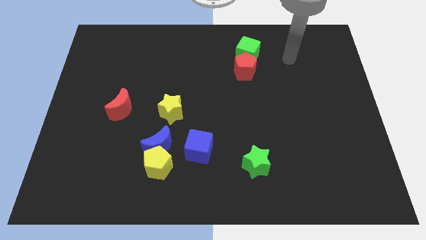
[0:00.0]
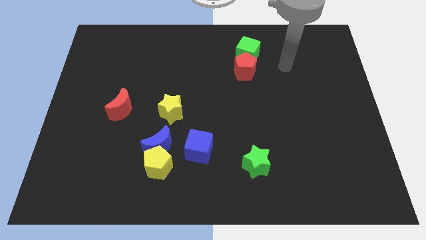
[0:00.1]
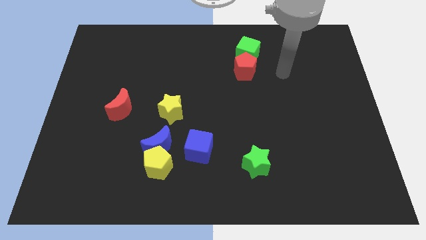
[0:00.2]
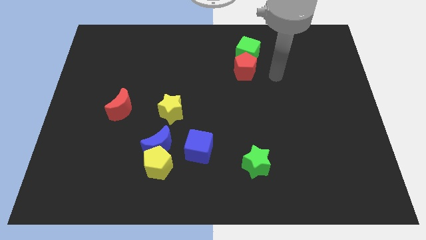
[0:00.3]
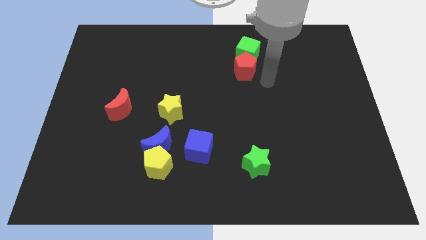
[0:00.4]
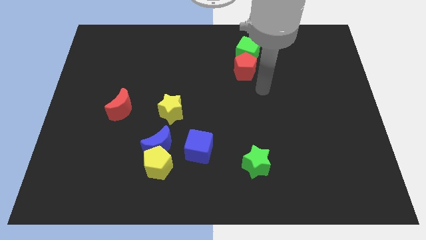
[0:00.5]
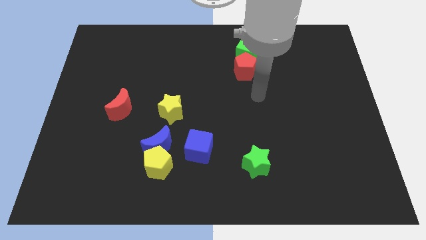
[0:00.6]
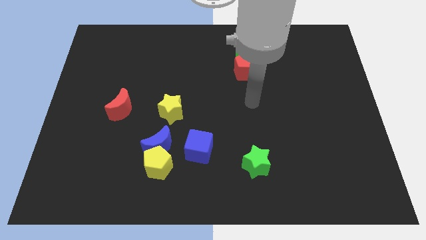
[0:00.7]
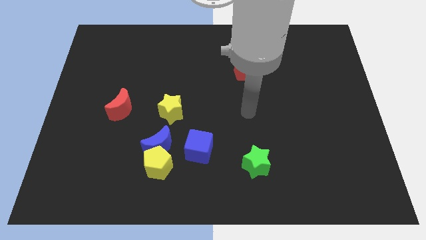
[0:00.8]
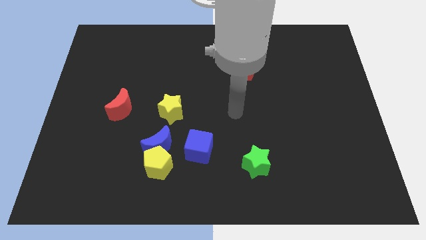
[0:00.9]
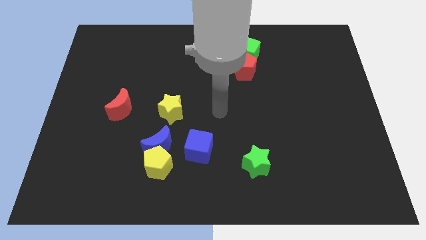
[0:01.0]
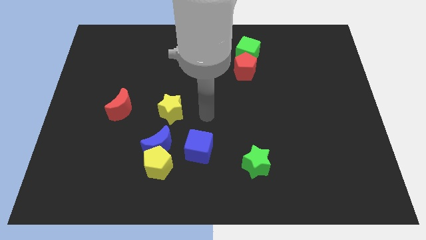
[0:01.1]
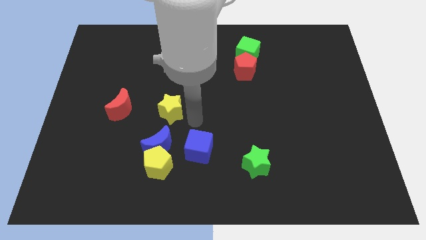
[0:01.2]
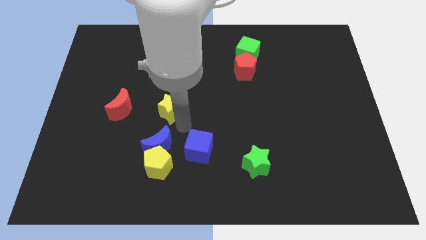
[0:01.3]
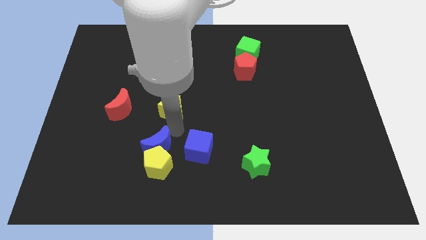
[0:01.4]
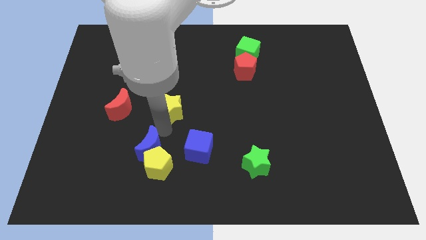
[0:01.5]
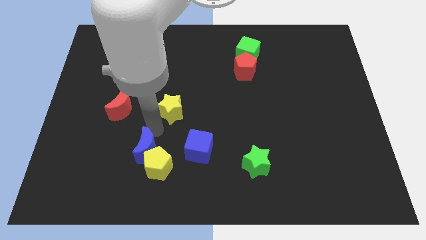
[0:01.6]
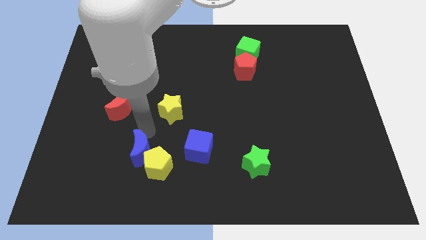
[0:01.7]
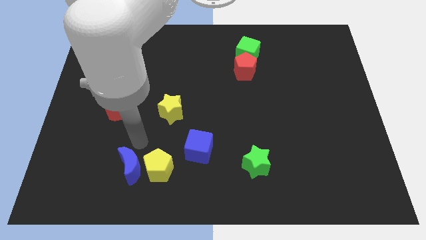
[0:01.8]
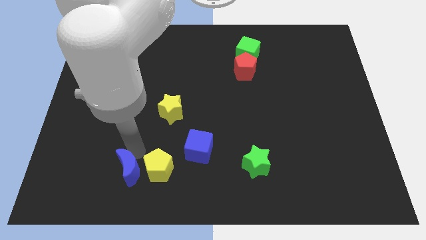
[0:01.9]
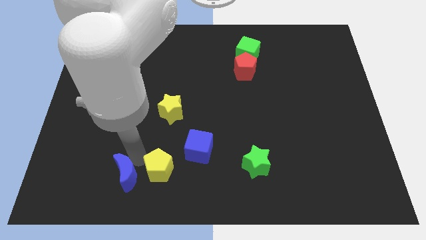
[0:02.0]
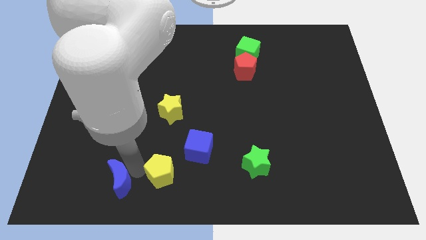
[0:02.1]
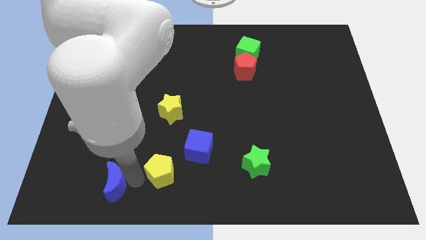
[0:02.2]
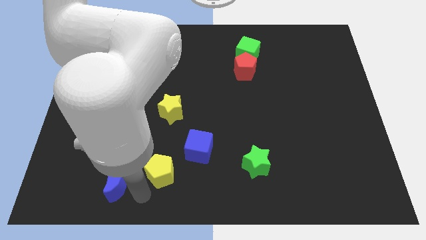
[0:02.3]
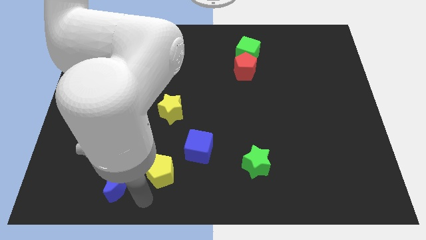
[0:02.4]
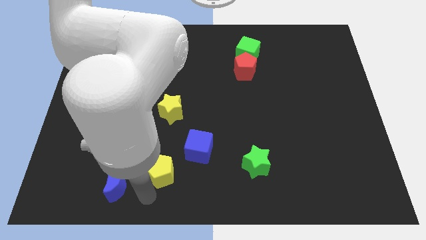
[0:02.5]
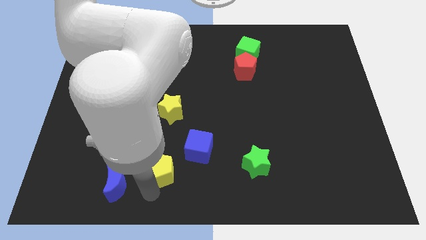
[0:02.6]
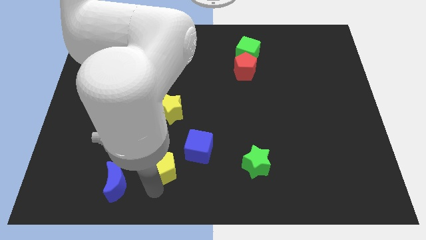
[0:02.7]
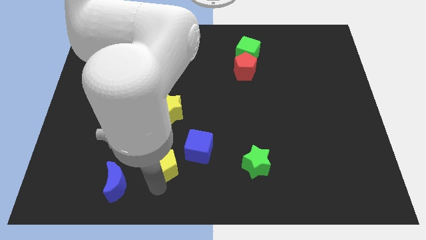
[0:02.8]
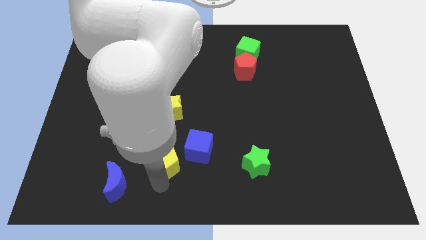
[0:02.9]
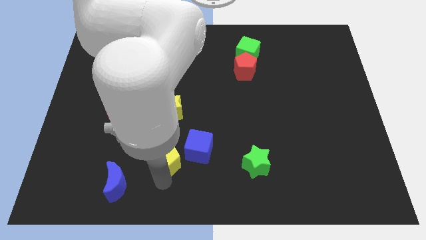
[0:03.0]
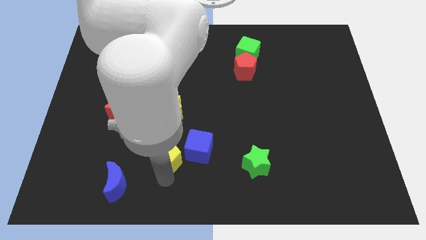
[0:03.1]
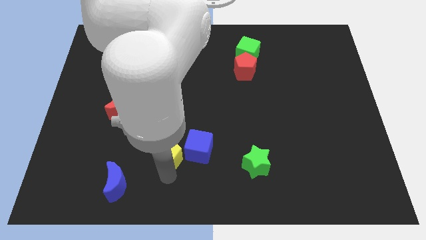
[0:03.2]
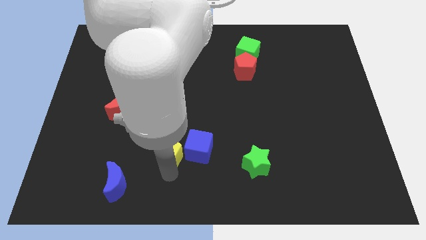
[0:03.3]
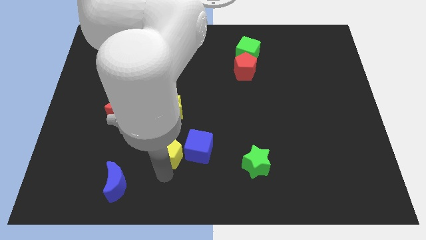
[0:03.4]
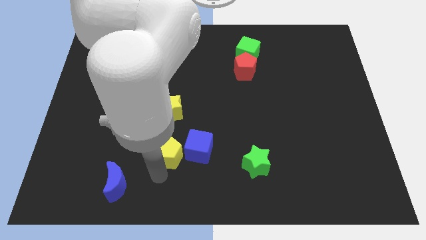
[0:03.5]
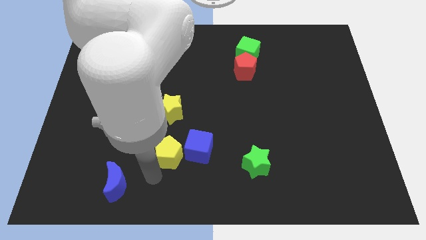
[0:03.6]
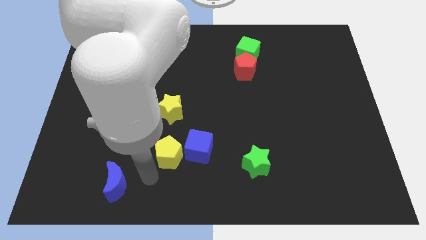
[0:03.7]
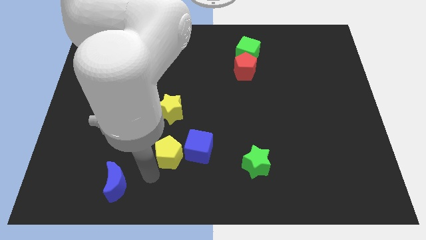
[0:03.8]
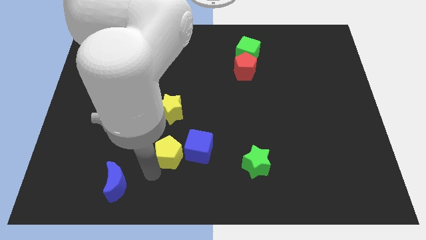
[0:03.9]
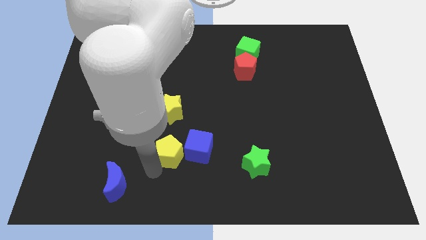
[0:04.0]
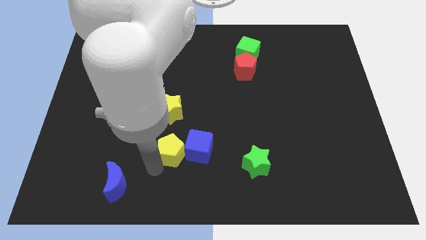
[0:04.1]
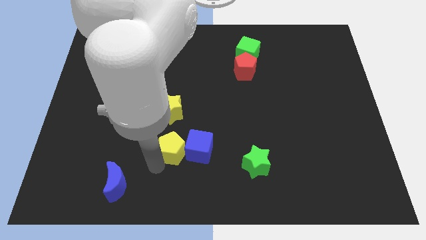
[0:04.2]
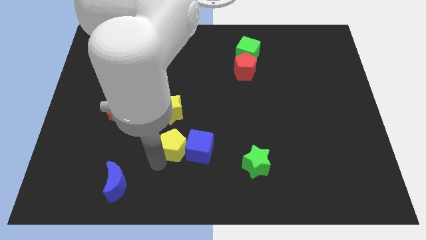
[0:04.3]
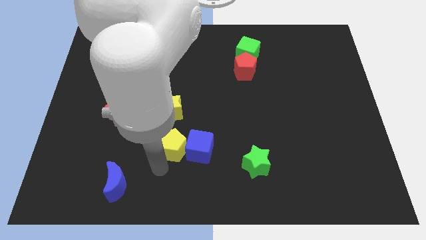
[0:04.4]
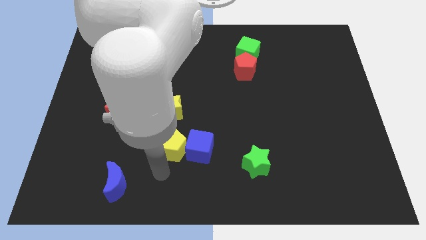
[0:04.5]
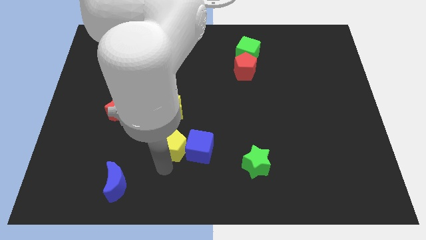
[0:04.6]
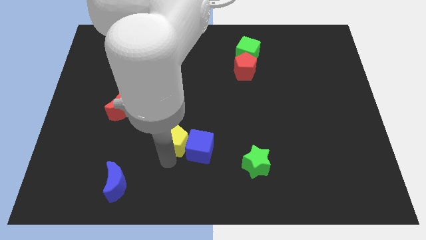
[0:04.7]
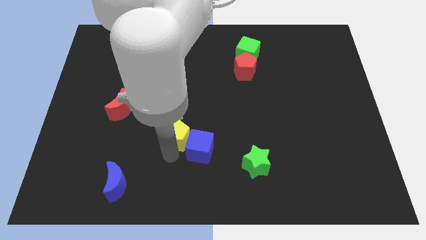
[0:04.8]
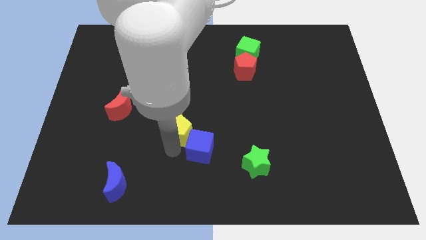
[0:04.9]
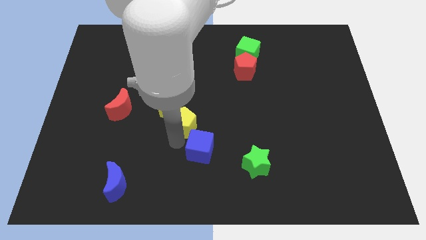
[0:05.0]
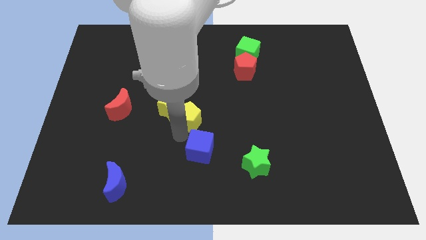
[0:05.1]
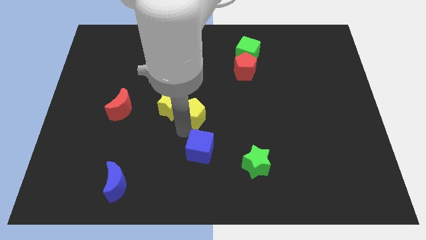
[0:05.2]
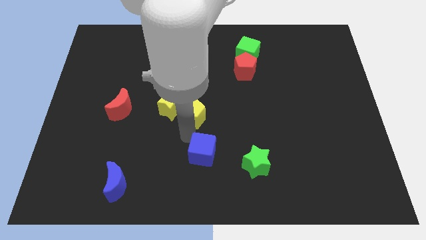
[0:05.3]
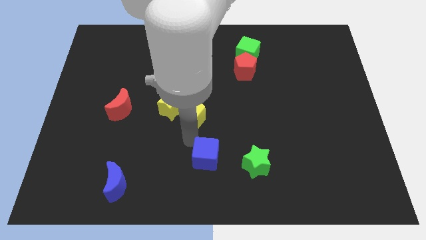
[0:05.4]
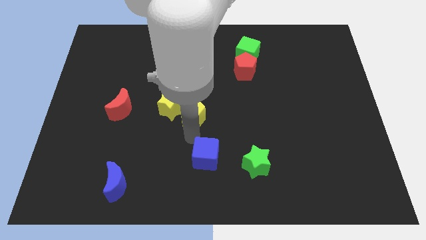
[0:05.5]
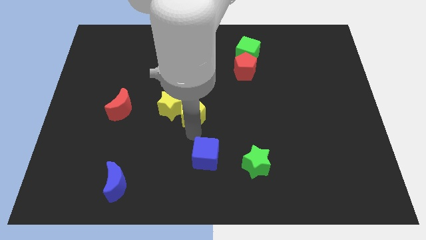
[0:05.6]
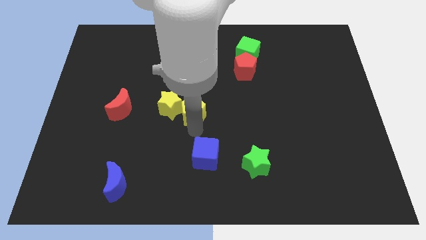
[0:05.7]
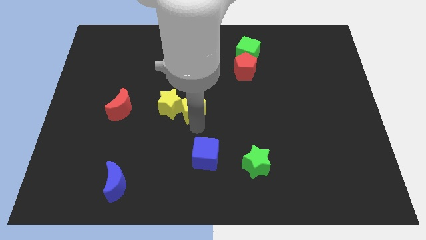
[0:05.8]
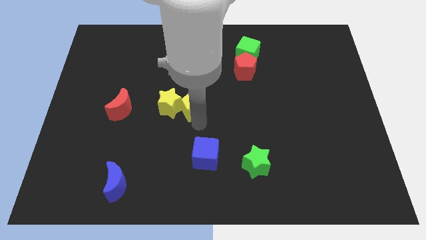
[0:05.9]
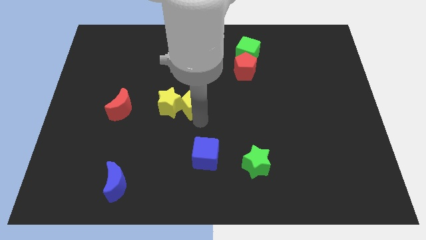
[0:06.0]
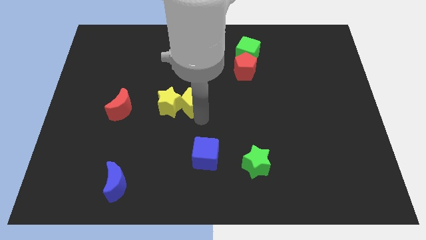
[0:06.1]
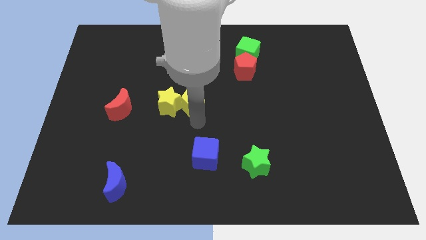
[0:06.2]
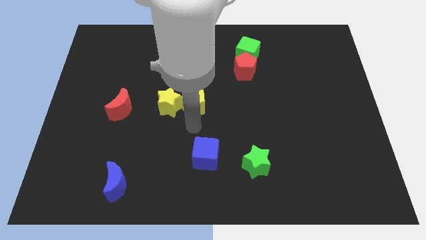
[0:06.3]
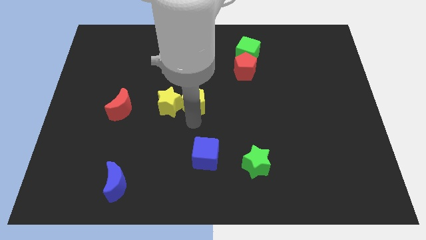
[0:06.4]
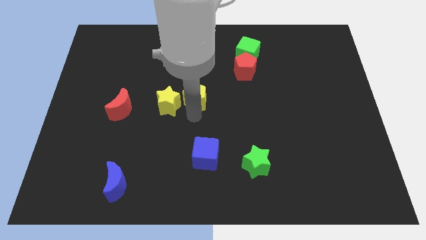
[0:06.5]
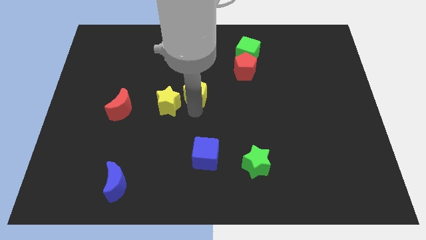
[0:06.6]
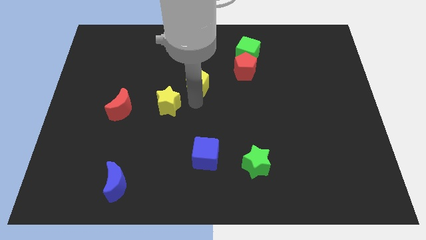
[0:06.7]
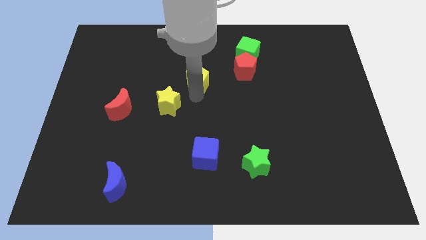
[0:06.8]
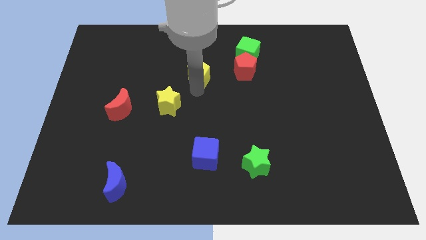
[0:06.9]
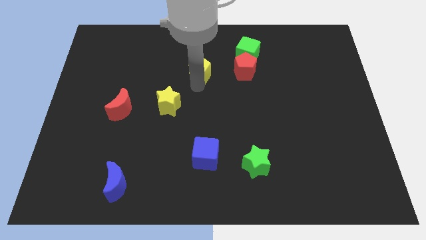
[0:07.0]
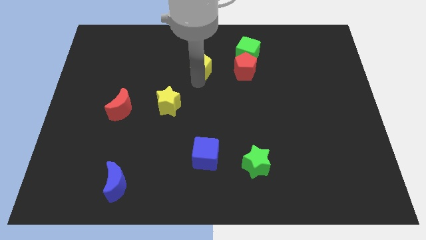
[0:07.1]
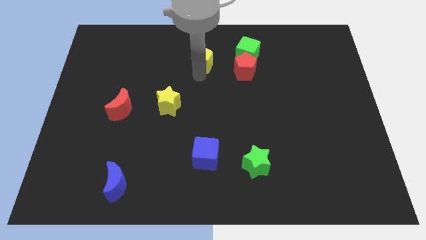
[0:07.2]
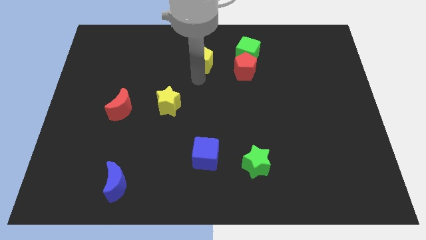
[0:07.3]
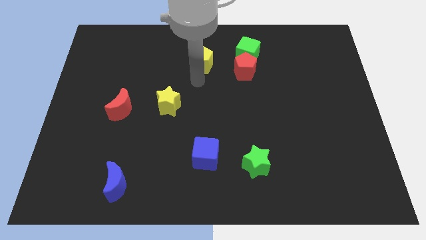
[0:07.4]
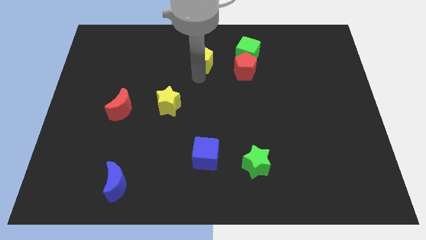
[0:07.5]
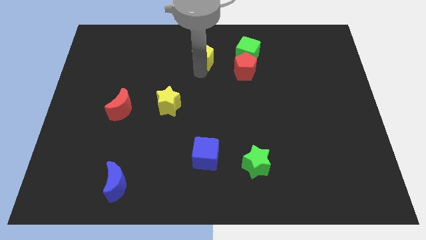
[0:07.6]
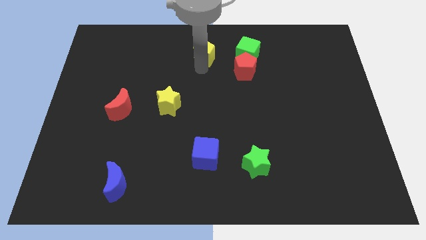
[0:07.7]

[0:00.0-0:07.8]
push the yellow pentagon to the top
